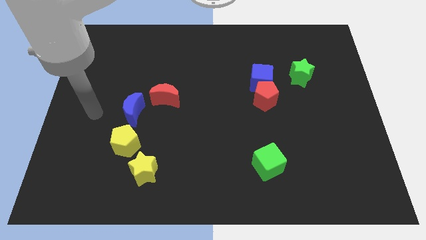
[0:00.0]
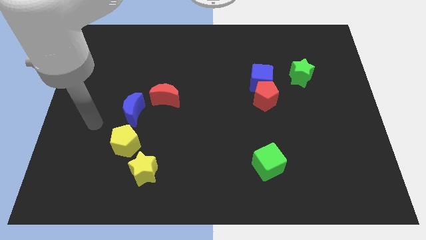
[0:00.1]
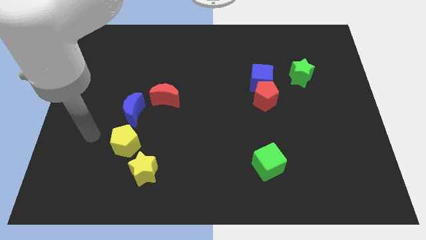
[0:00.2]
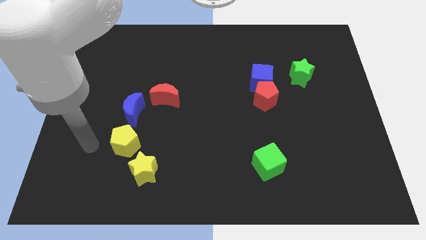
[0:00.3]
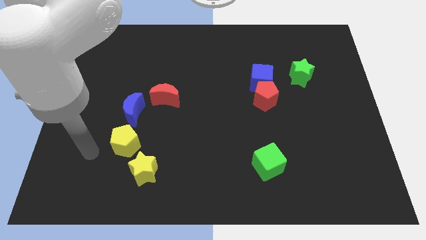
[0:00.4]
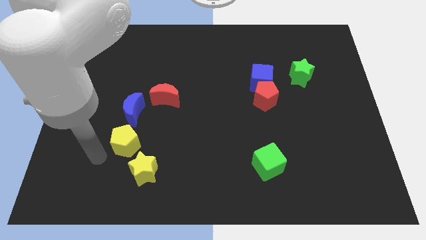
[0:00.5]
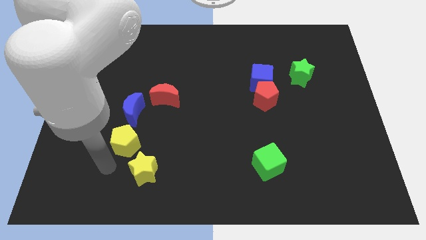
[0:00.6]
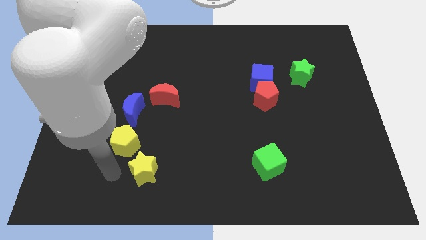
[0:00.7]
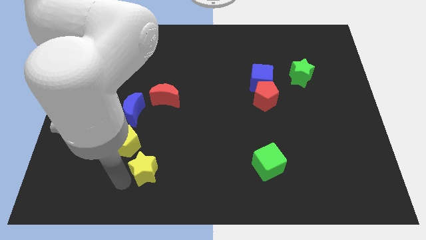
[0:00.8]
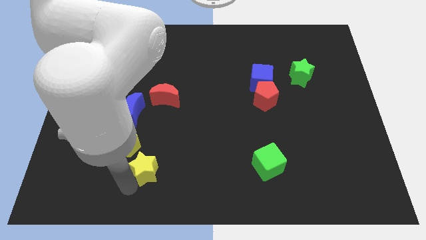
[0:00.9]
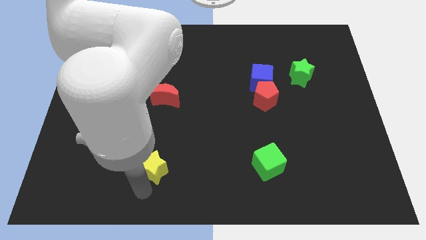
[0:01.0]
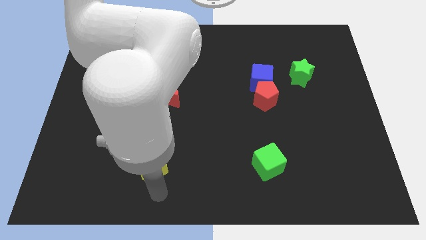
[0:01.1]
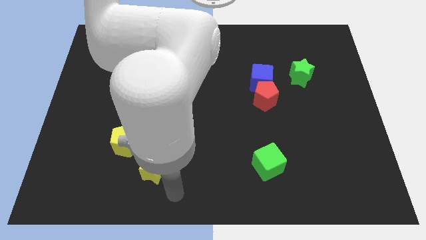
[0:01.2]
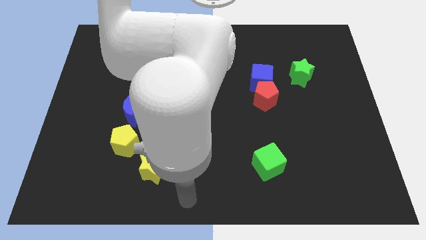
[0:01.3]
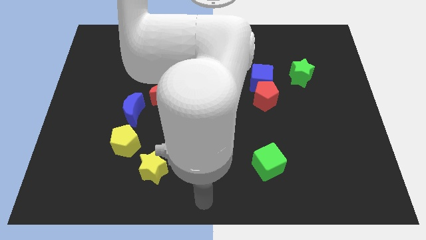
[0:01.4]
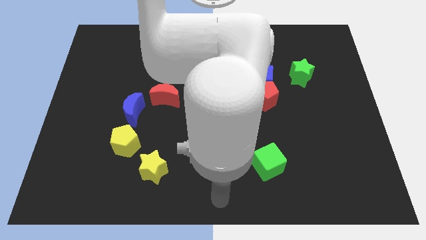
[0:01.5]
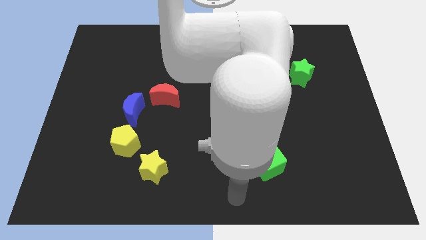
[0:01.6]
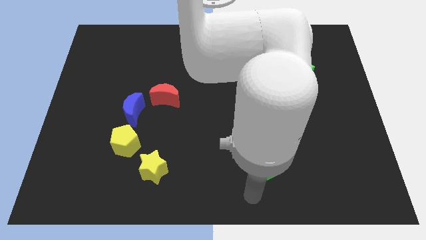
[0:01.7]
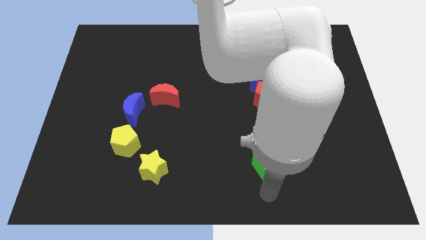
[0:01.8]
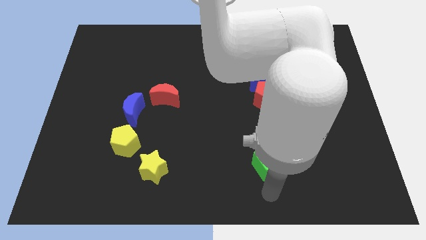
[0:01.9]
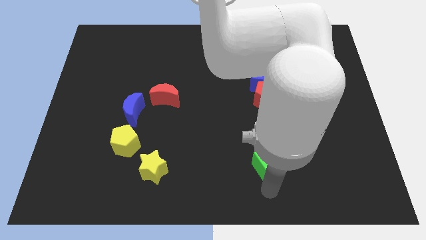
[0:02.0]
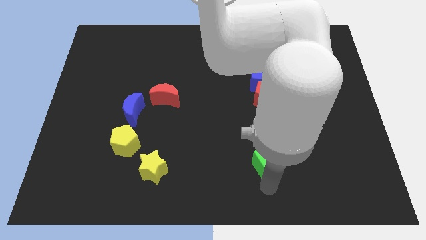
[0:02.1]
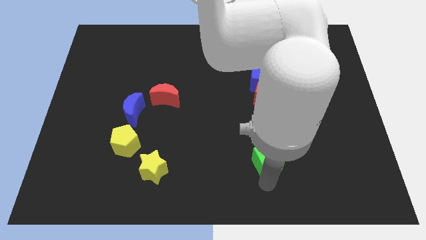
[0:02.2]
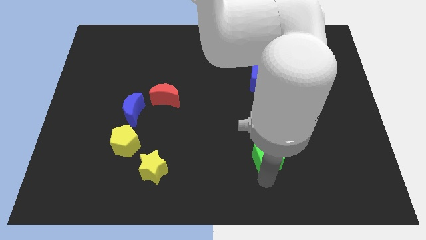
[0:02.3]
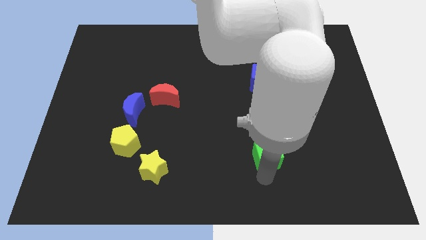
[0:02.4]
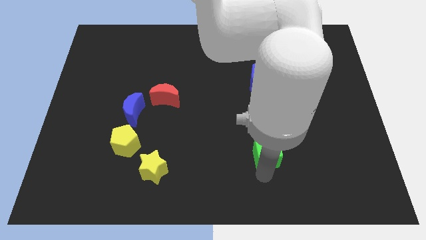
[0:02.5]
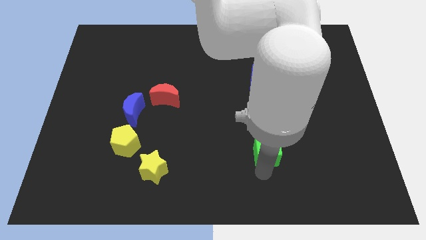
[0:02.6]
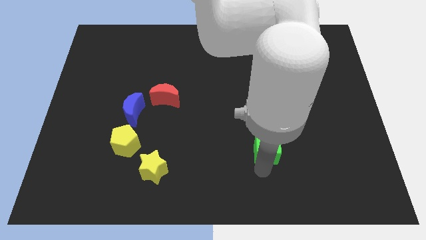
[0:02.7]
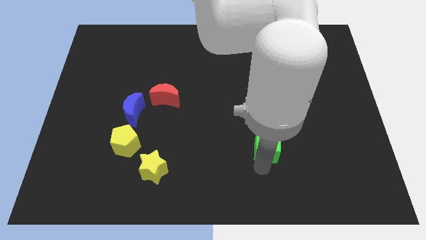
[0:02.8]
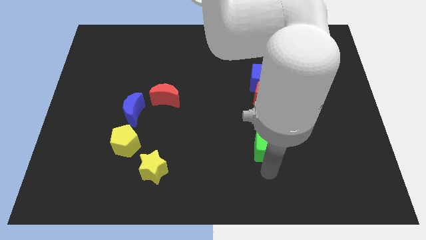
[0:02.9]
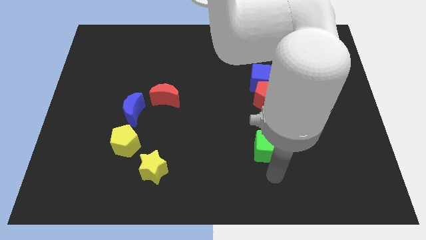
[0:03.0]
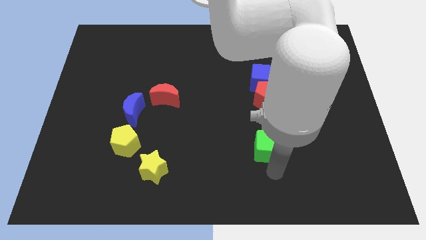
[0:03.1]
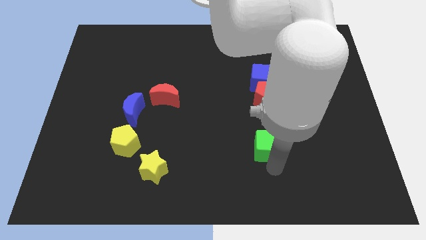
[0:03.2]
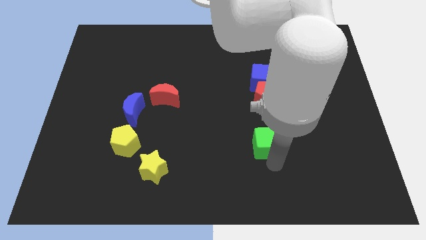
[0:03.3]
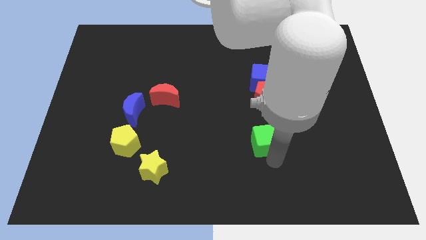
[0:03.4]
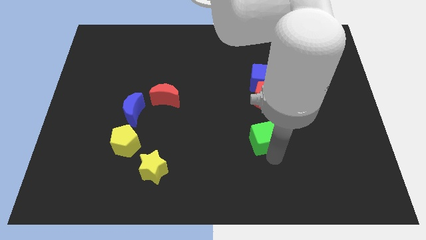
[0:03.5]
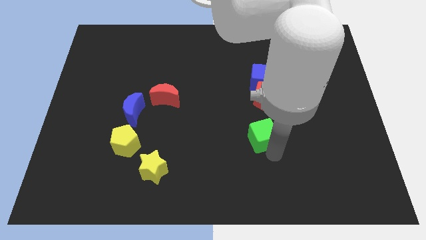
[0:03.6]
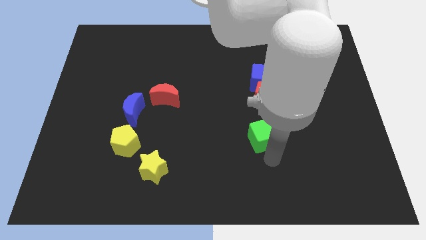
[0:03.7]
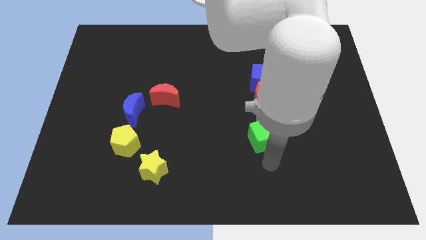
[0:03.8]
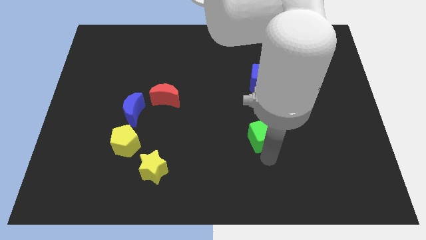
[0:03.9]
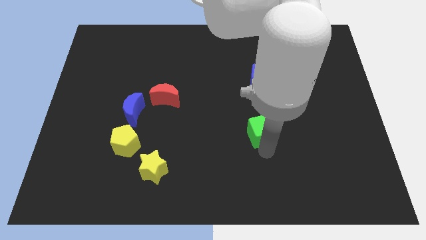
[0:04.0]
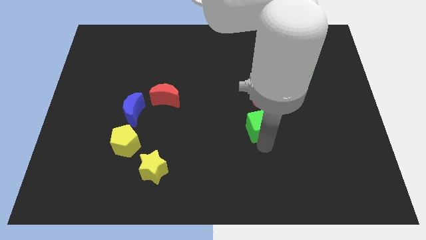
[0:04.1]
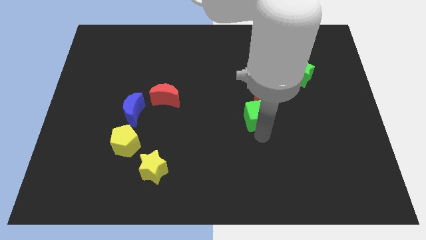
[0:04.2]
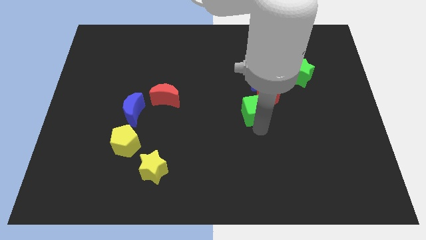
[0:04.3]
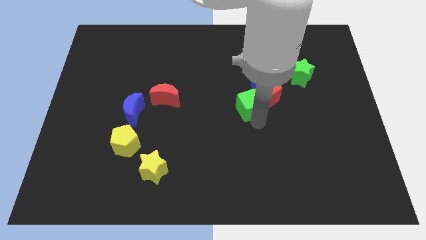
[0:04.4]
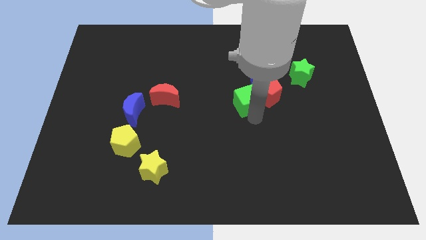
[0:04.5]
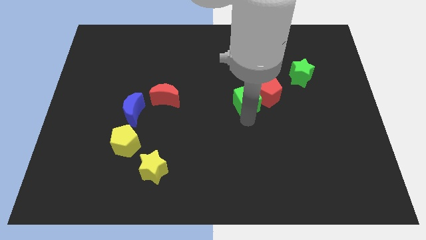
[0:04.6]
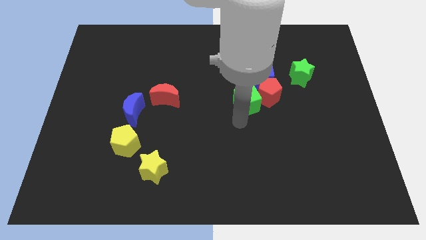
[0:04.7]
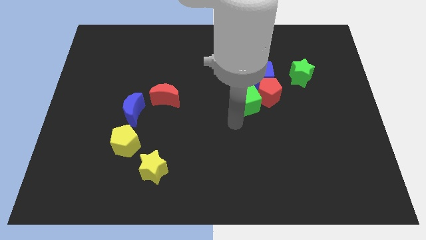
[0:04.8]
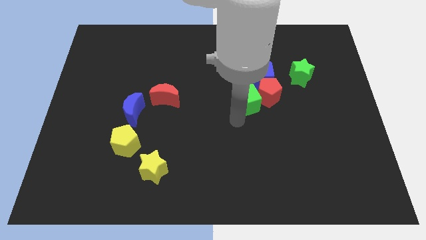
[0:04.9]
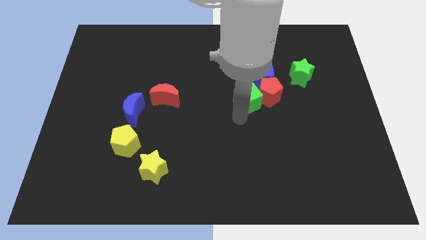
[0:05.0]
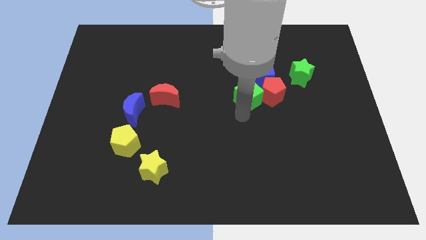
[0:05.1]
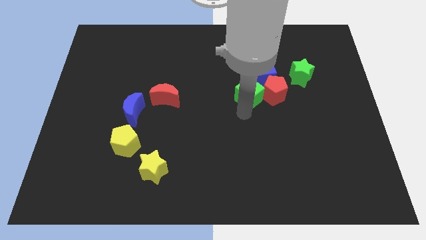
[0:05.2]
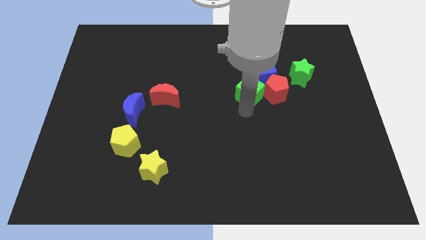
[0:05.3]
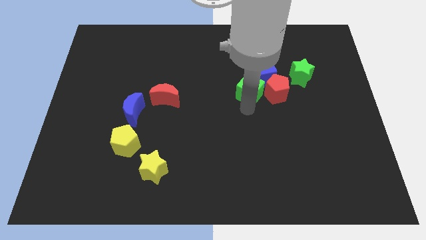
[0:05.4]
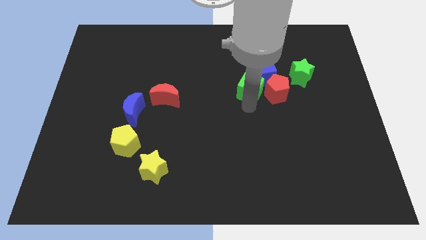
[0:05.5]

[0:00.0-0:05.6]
push the green cube to the blue cube

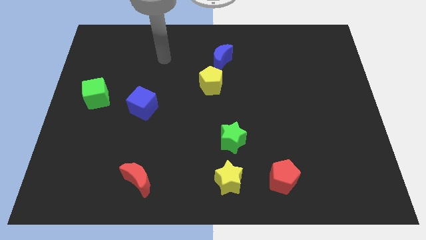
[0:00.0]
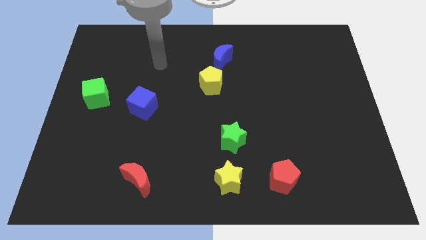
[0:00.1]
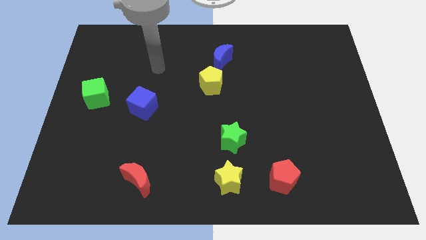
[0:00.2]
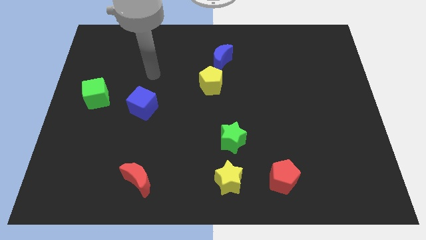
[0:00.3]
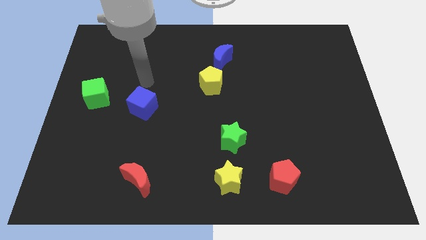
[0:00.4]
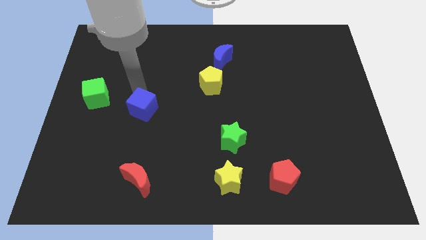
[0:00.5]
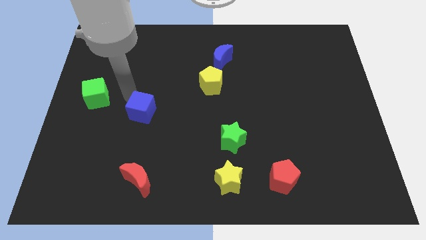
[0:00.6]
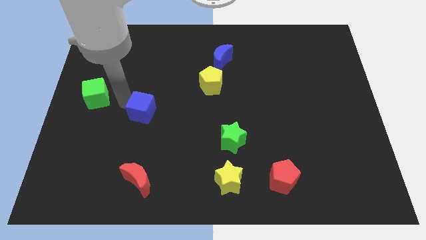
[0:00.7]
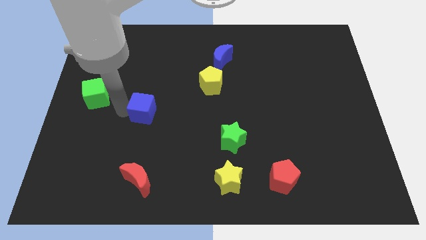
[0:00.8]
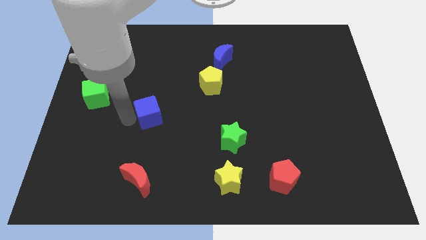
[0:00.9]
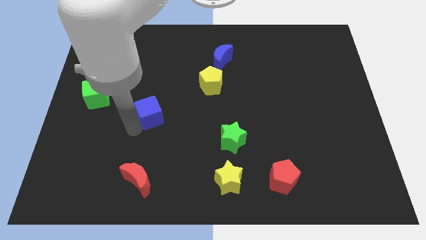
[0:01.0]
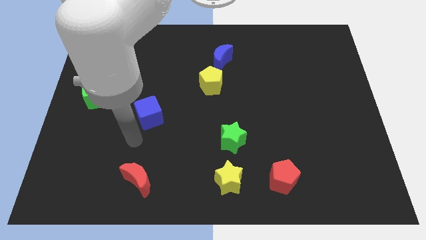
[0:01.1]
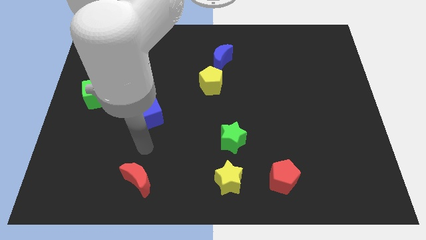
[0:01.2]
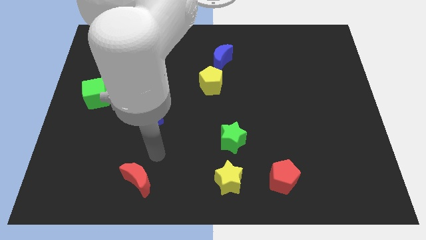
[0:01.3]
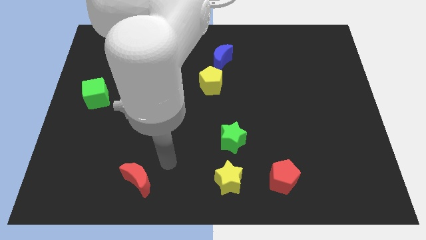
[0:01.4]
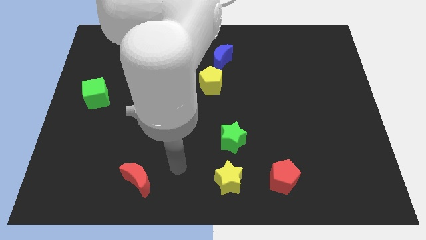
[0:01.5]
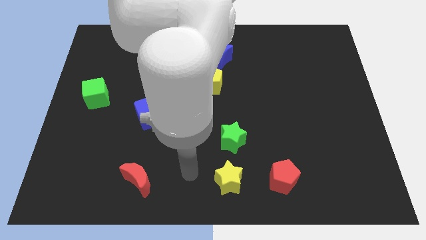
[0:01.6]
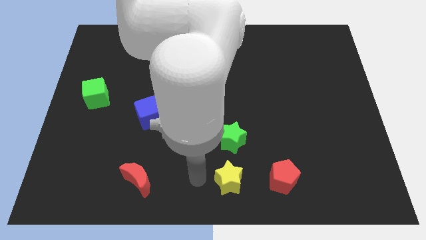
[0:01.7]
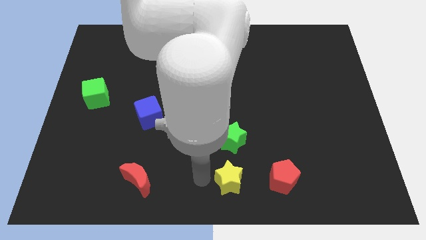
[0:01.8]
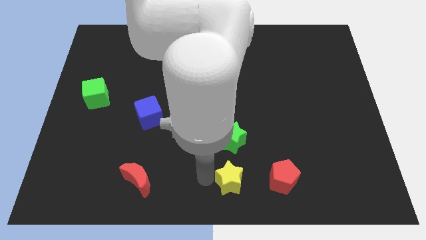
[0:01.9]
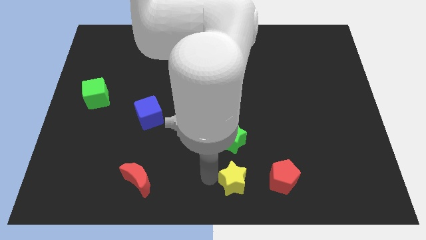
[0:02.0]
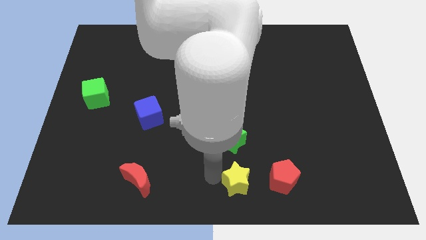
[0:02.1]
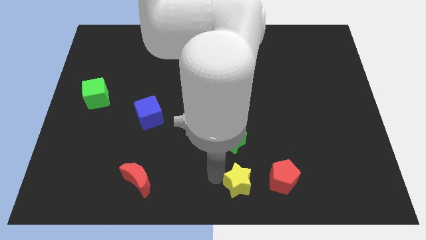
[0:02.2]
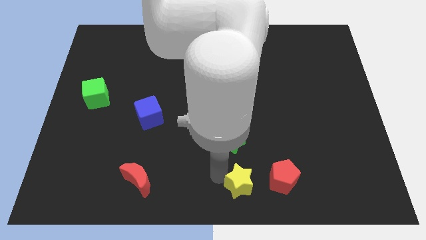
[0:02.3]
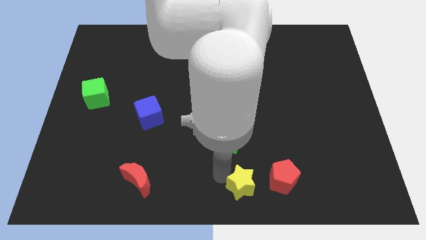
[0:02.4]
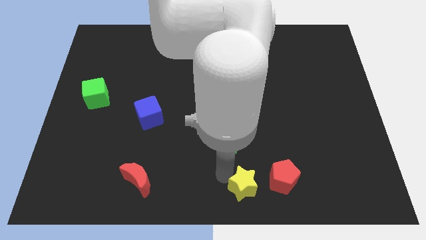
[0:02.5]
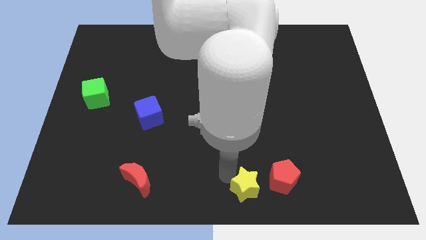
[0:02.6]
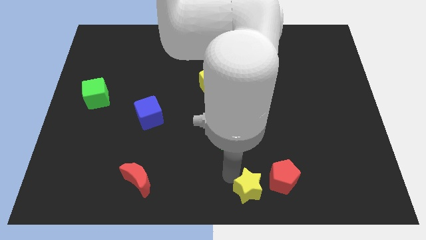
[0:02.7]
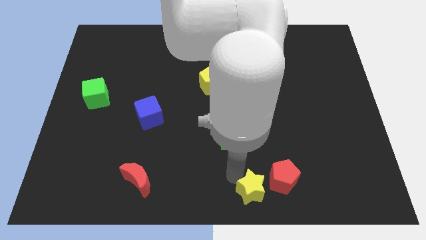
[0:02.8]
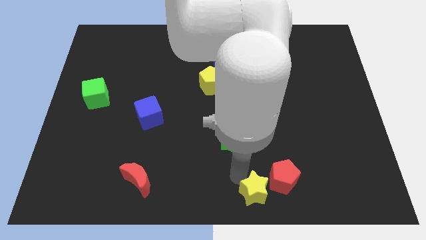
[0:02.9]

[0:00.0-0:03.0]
push the yellow star to the red pentagon
